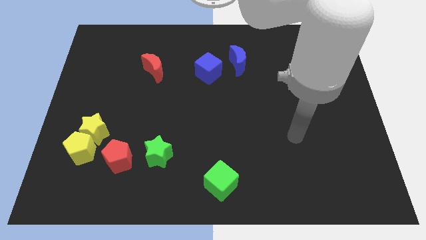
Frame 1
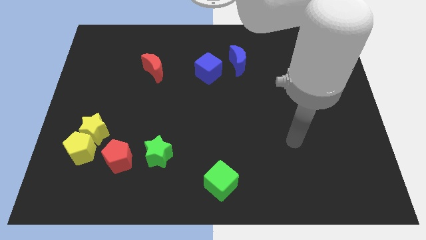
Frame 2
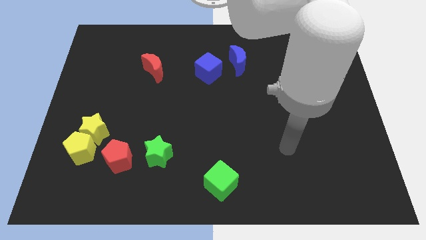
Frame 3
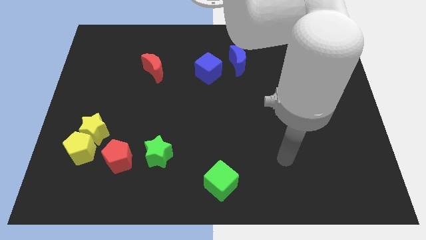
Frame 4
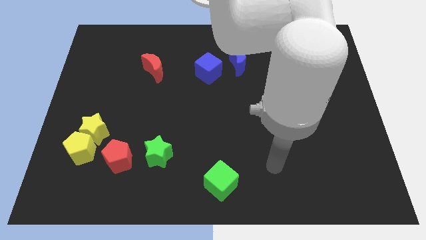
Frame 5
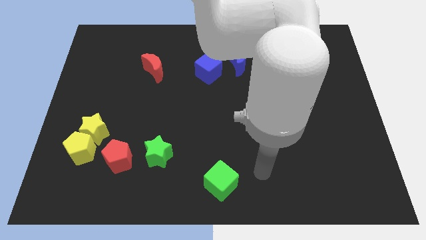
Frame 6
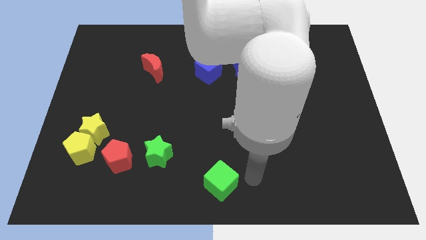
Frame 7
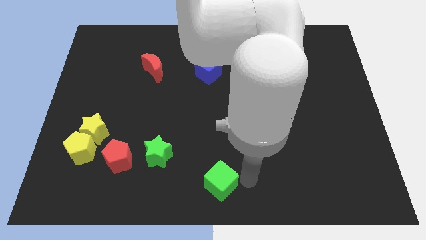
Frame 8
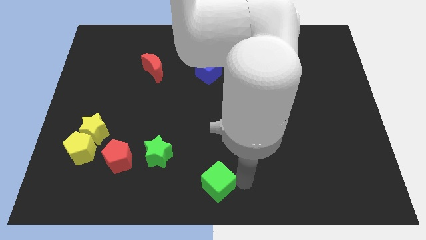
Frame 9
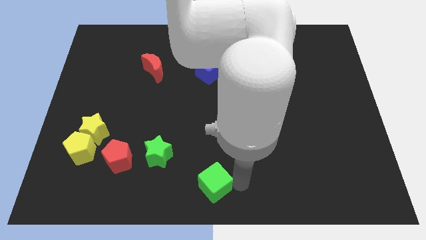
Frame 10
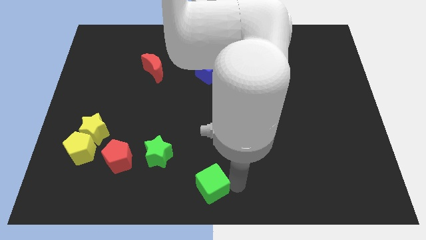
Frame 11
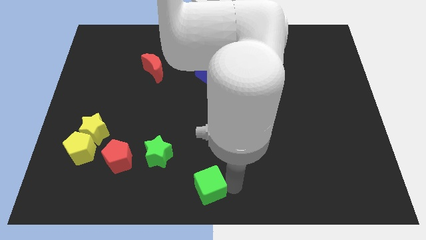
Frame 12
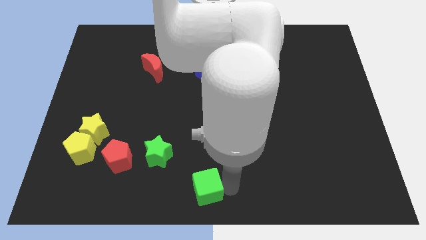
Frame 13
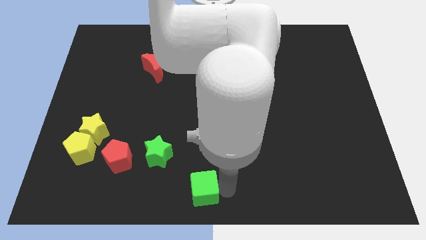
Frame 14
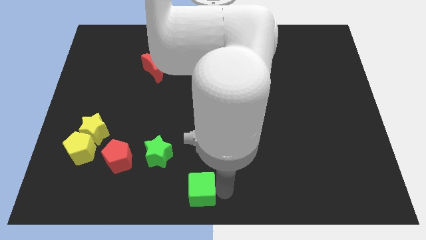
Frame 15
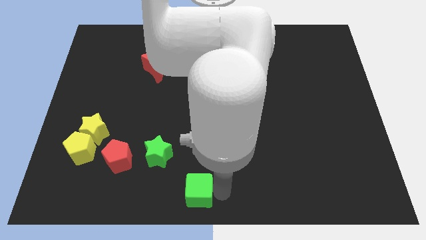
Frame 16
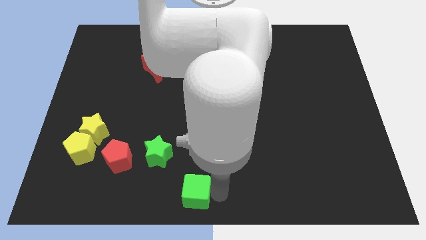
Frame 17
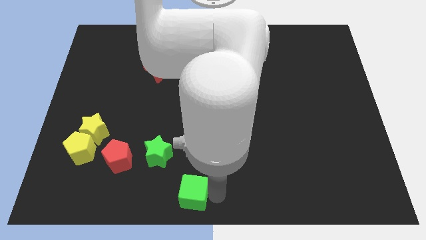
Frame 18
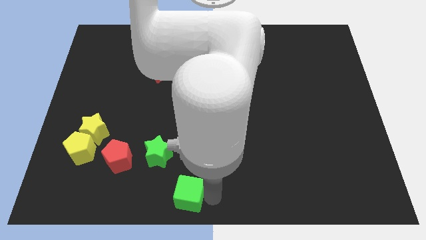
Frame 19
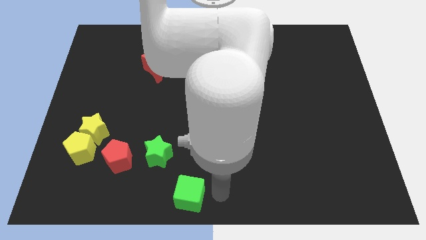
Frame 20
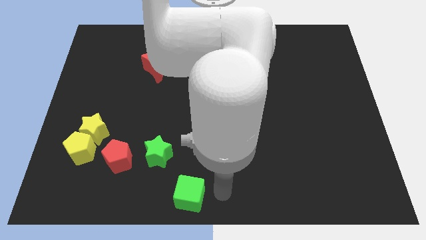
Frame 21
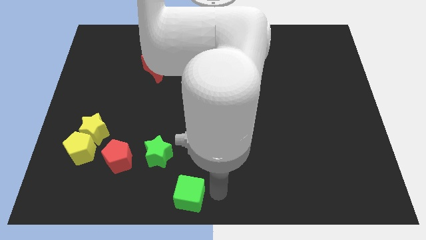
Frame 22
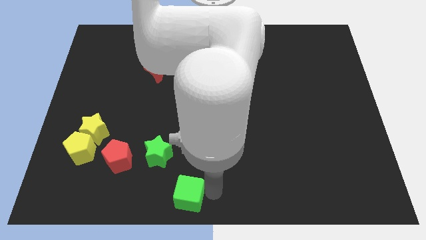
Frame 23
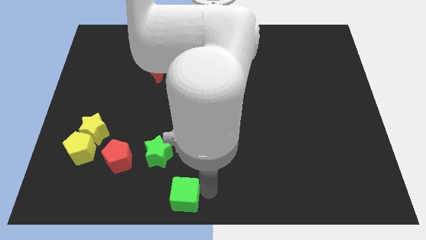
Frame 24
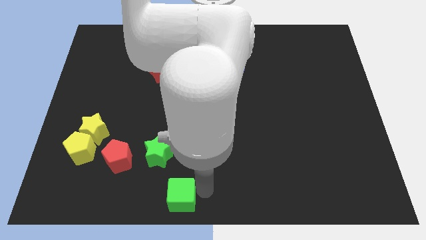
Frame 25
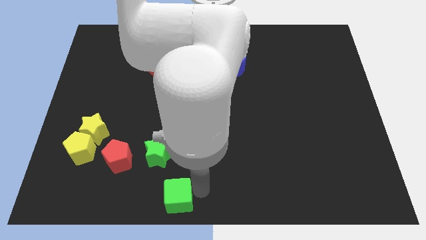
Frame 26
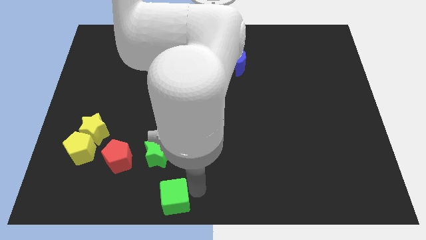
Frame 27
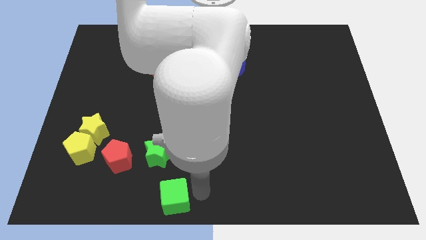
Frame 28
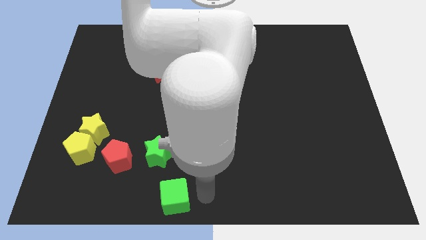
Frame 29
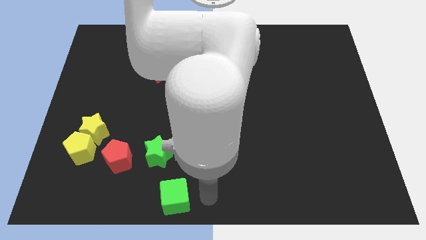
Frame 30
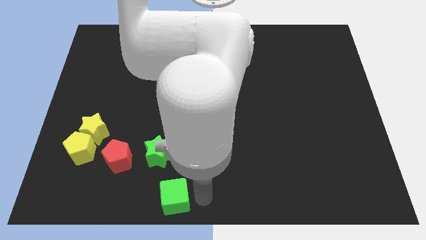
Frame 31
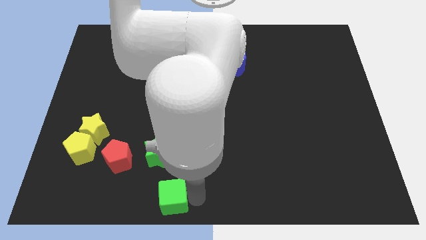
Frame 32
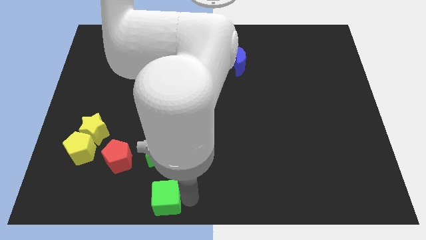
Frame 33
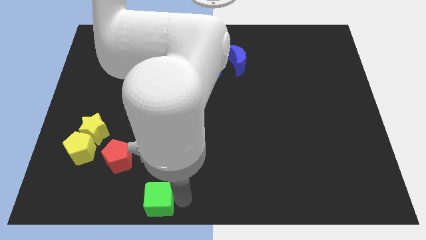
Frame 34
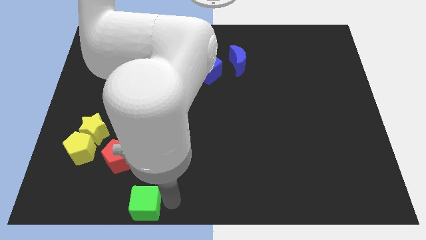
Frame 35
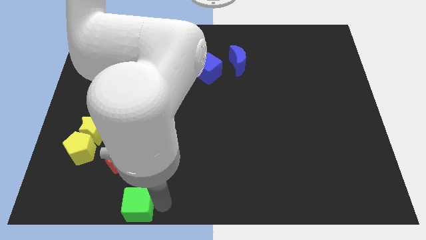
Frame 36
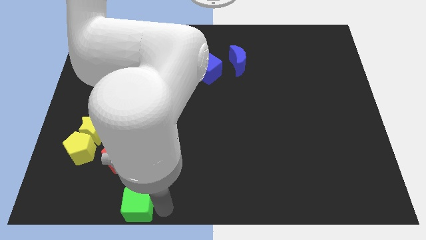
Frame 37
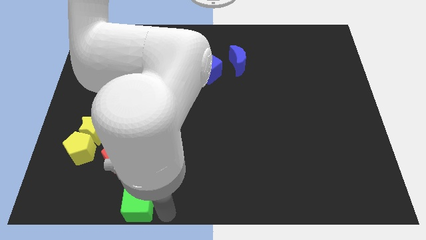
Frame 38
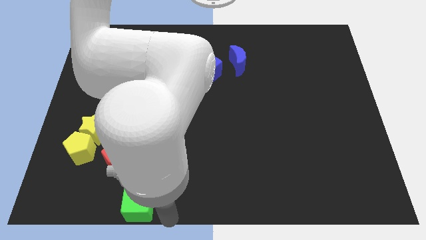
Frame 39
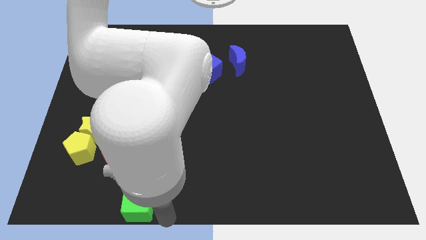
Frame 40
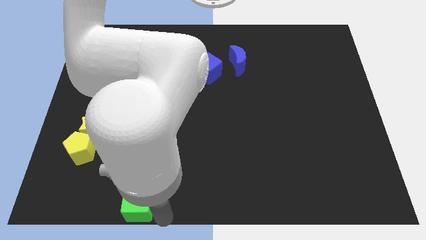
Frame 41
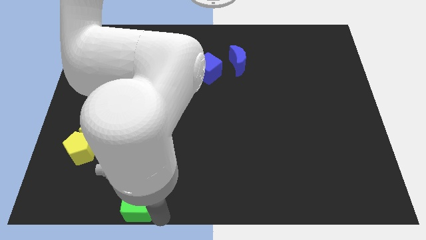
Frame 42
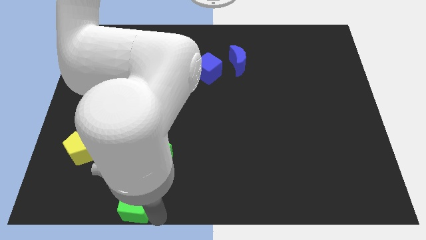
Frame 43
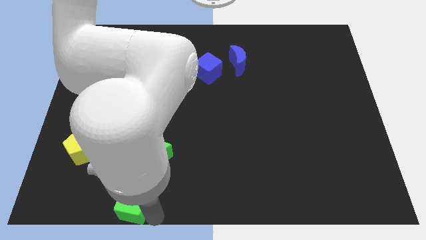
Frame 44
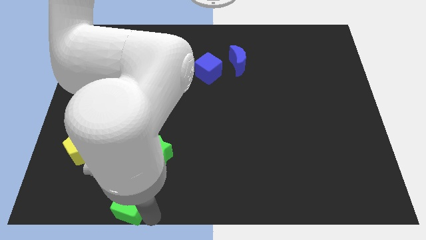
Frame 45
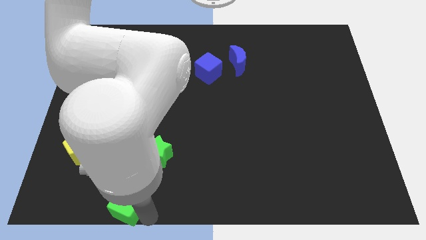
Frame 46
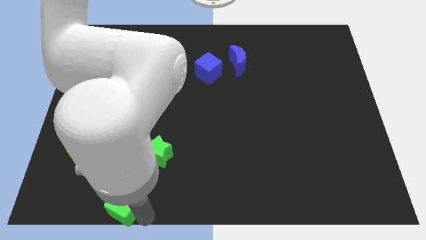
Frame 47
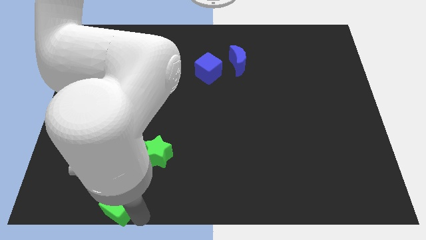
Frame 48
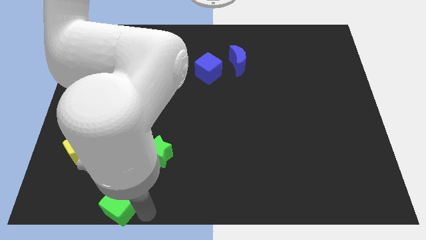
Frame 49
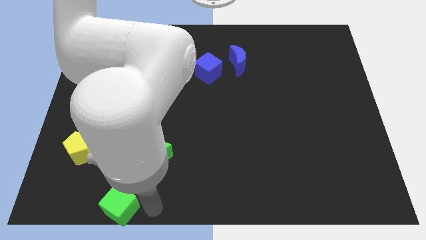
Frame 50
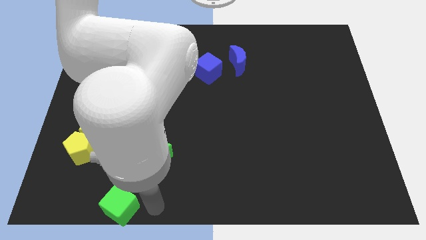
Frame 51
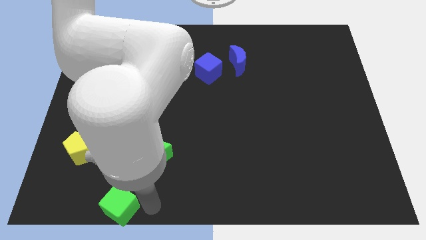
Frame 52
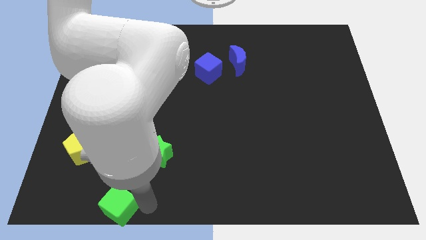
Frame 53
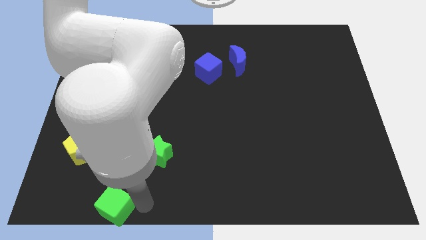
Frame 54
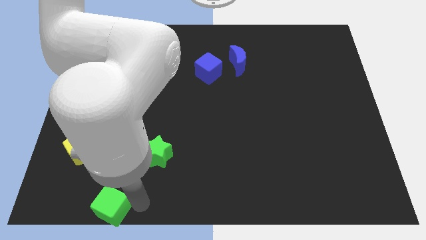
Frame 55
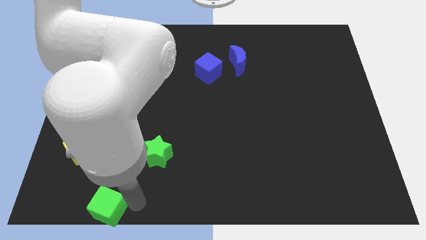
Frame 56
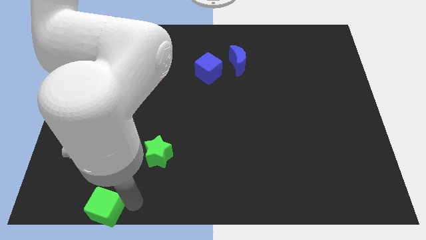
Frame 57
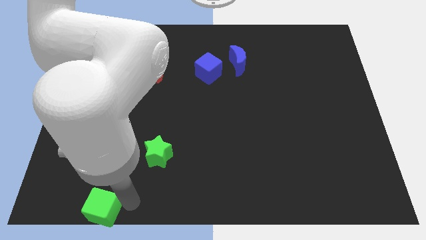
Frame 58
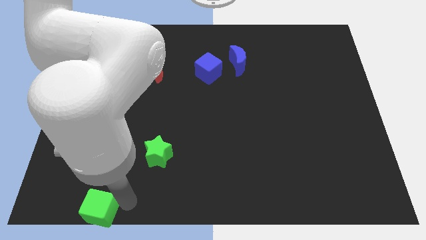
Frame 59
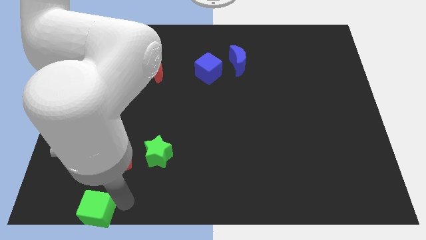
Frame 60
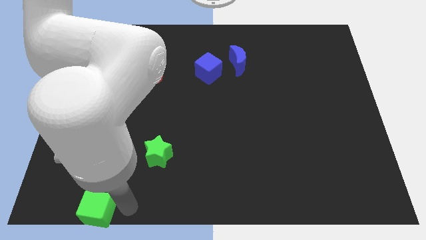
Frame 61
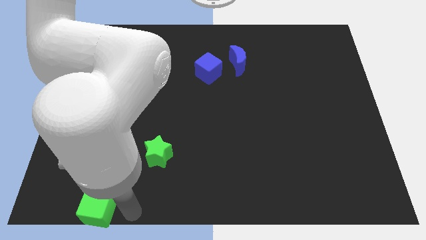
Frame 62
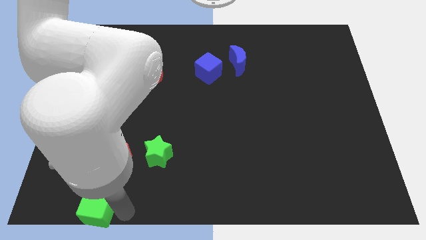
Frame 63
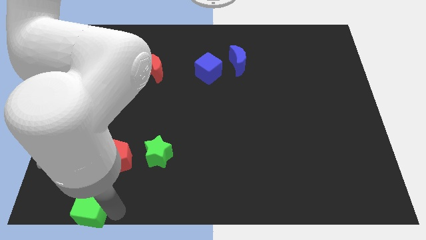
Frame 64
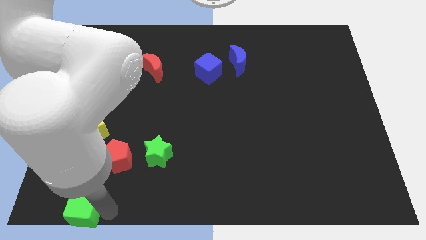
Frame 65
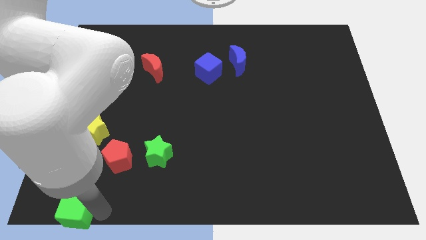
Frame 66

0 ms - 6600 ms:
push the green cube to the bottom left

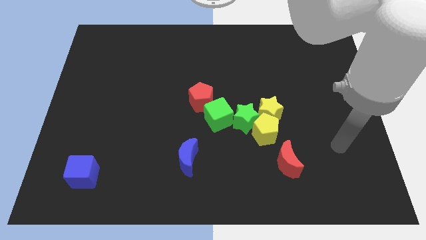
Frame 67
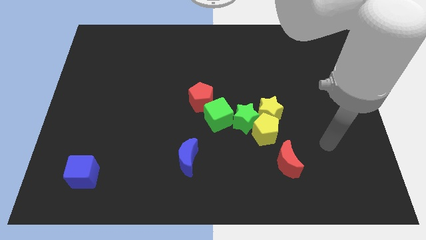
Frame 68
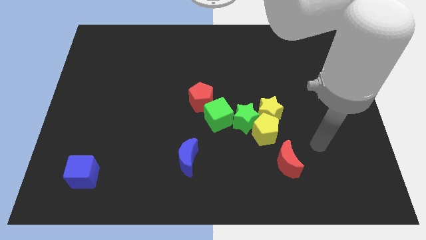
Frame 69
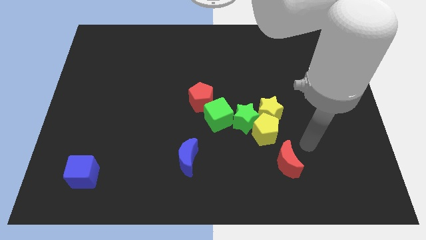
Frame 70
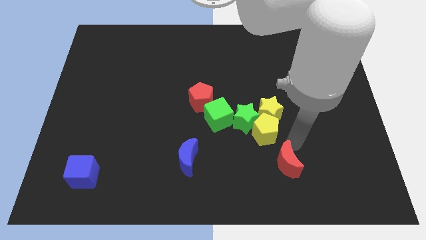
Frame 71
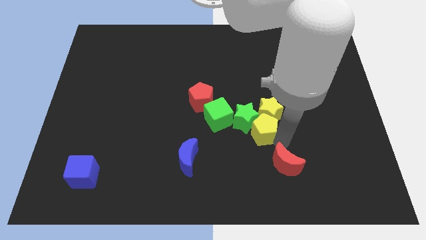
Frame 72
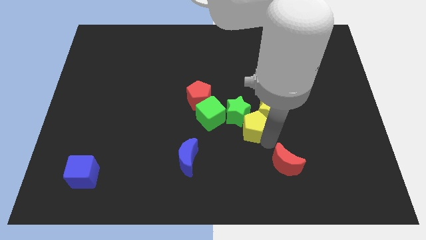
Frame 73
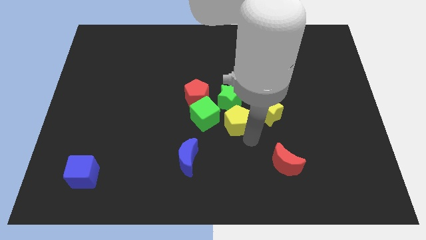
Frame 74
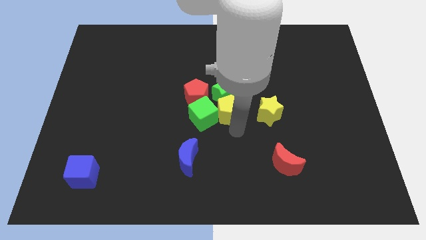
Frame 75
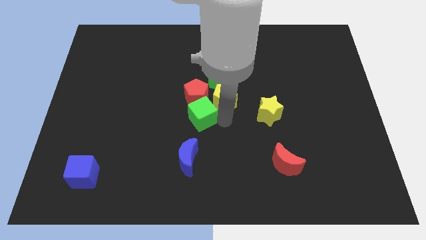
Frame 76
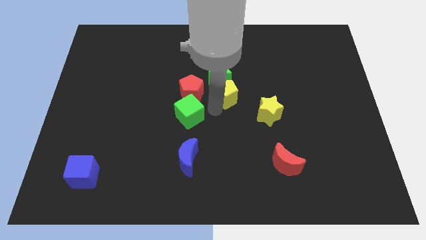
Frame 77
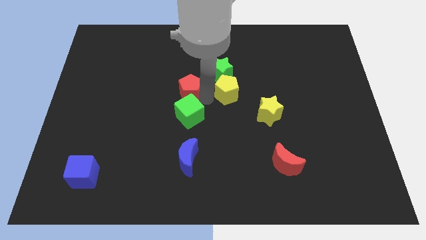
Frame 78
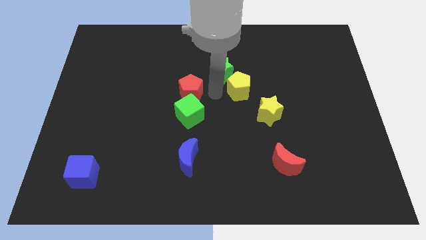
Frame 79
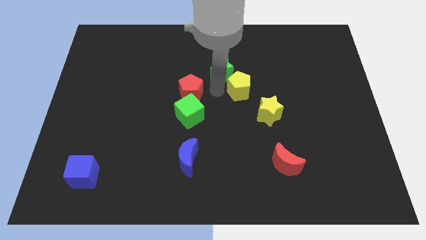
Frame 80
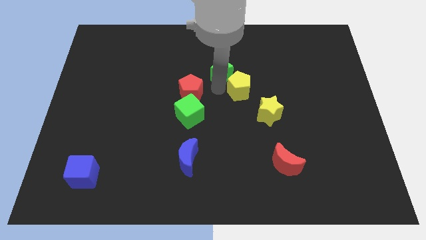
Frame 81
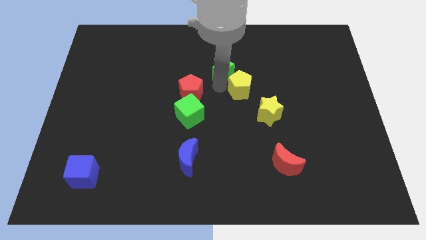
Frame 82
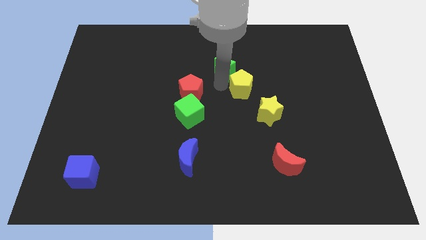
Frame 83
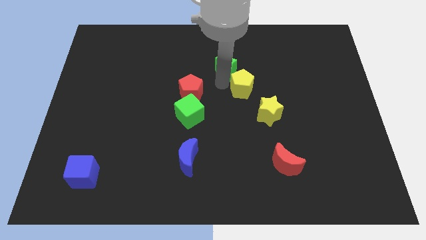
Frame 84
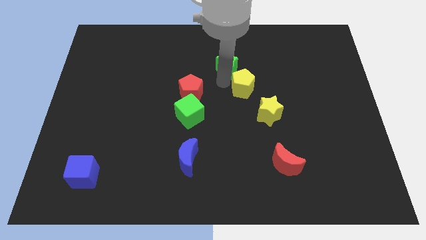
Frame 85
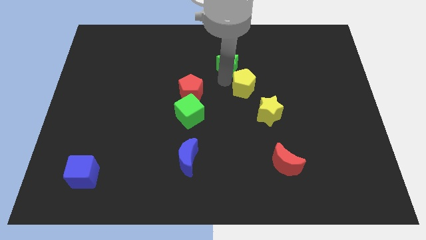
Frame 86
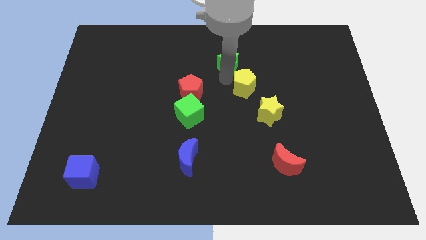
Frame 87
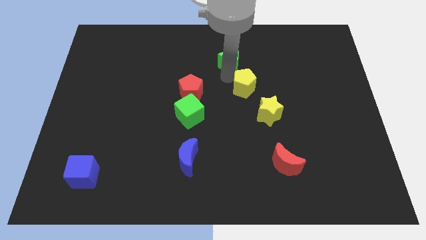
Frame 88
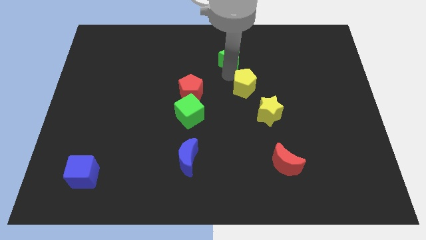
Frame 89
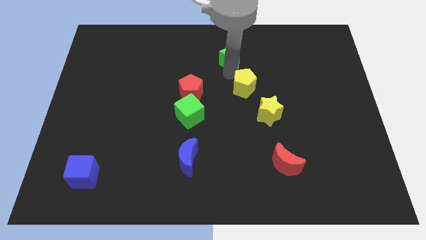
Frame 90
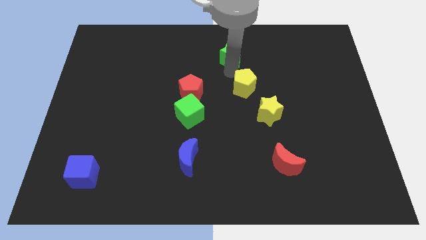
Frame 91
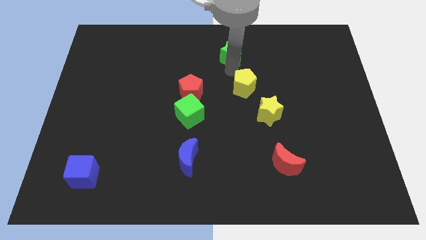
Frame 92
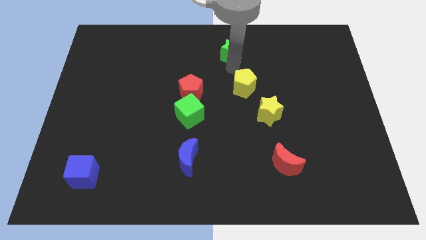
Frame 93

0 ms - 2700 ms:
push the green star to the top side
